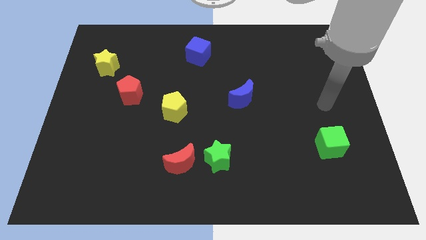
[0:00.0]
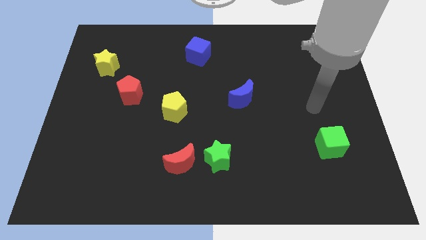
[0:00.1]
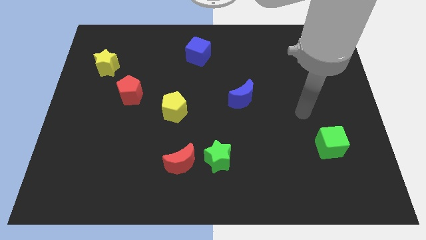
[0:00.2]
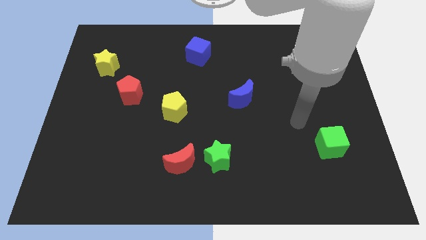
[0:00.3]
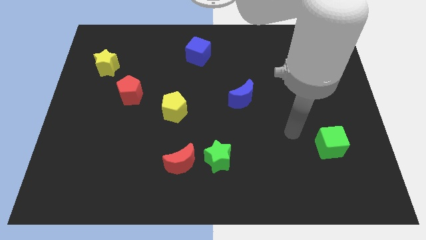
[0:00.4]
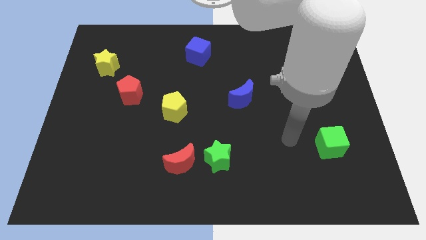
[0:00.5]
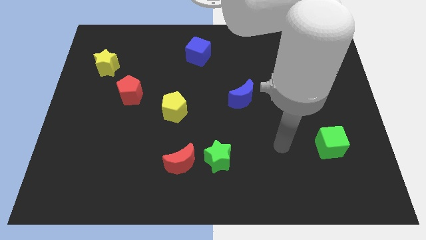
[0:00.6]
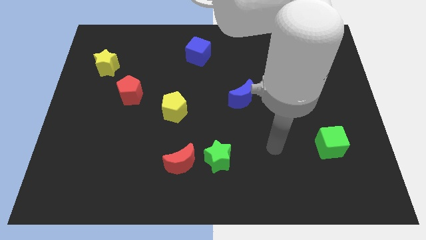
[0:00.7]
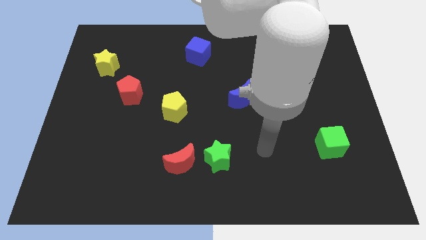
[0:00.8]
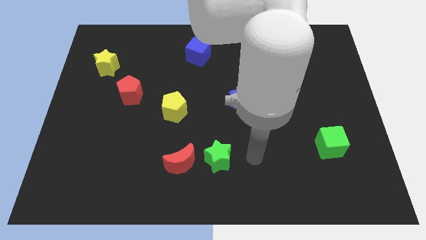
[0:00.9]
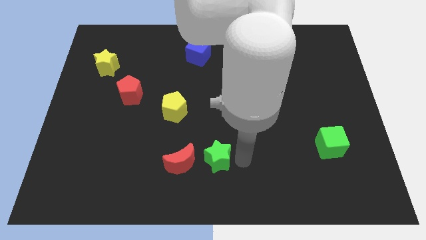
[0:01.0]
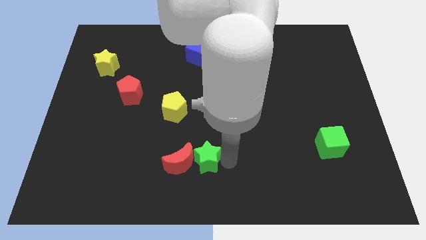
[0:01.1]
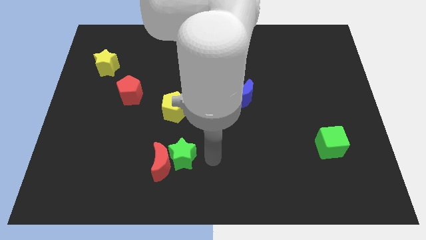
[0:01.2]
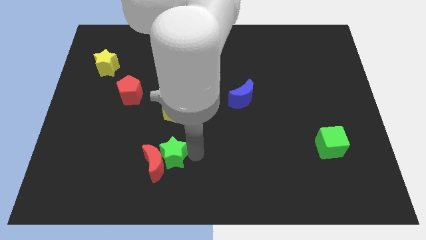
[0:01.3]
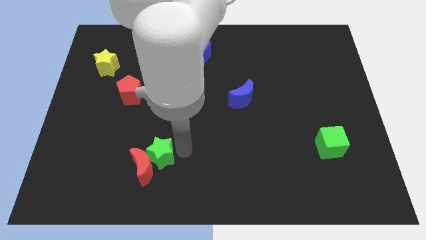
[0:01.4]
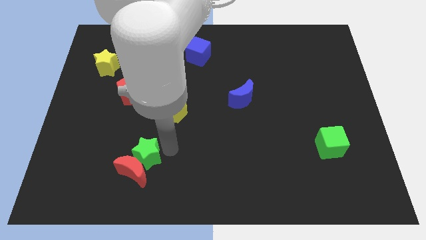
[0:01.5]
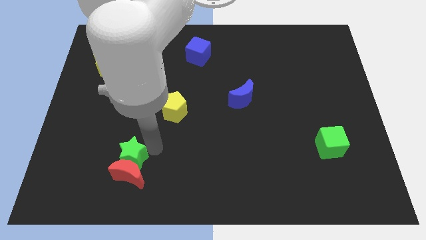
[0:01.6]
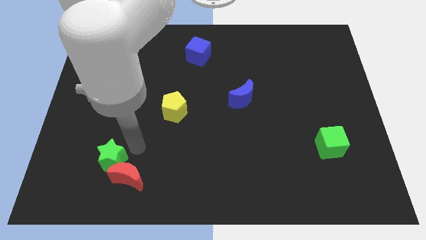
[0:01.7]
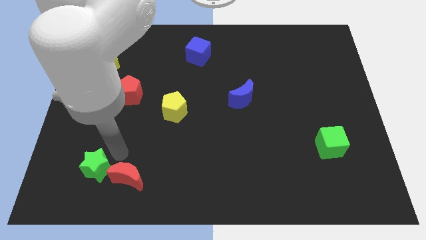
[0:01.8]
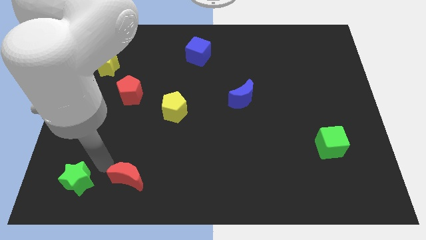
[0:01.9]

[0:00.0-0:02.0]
move the red moon away from the green star

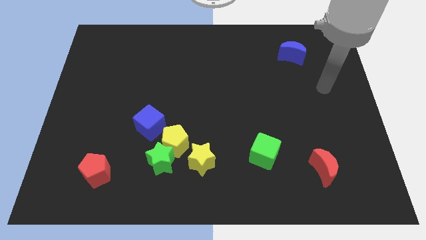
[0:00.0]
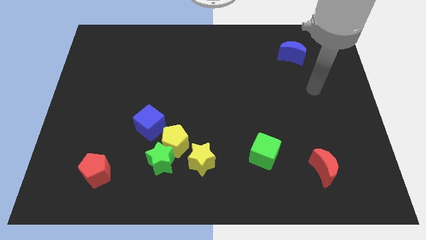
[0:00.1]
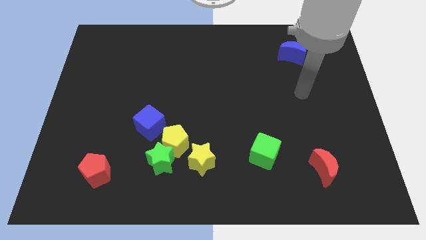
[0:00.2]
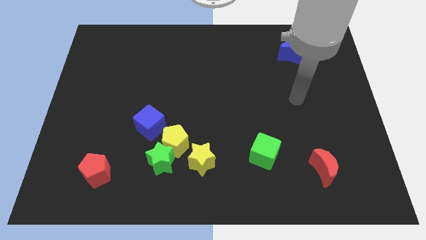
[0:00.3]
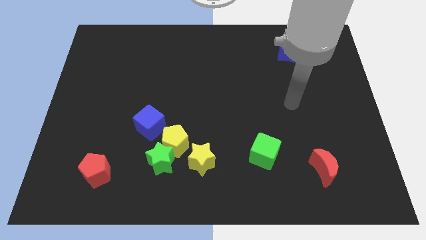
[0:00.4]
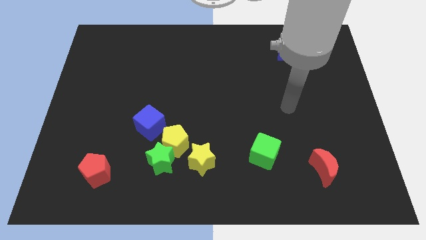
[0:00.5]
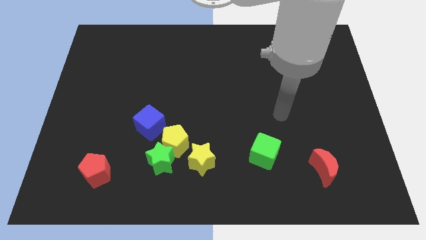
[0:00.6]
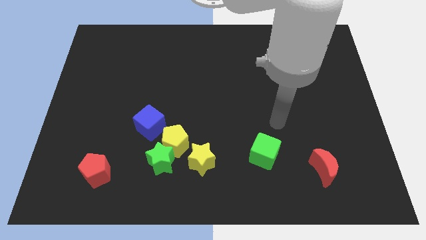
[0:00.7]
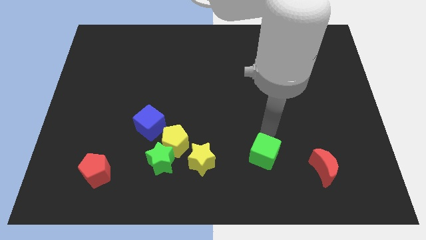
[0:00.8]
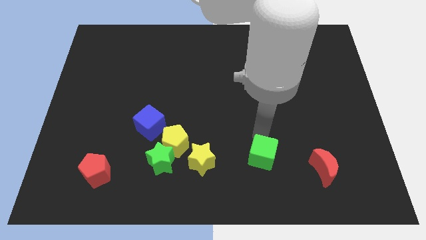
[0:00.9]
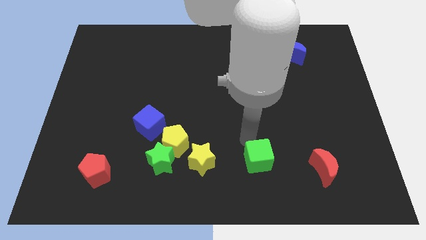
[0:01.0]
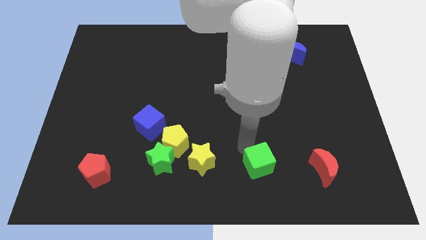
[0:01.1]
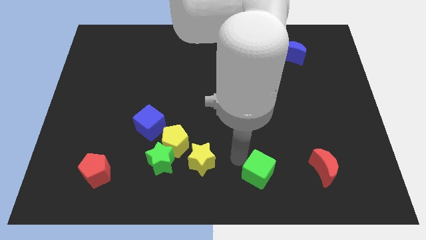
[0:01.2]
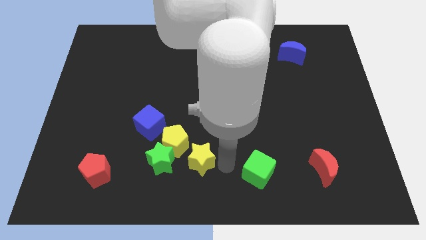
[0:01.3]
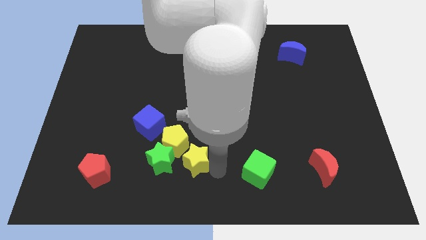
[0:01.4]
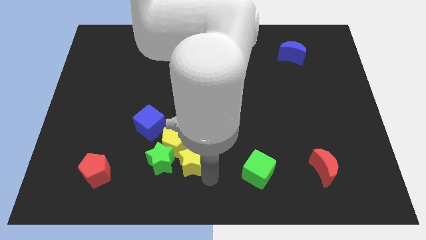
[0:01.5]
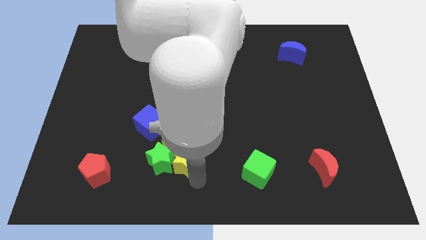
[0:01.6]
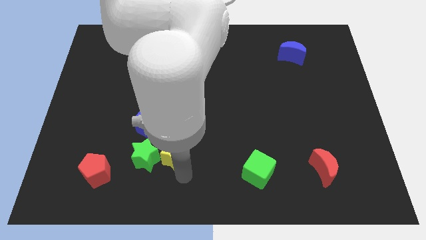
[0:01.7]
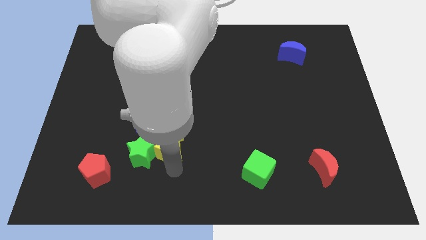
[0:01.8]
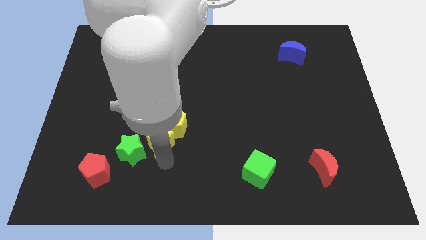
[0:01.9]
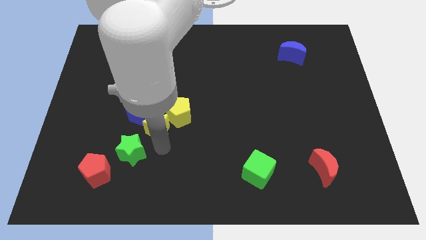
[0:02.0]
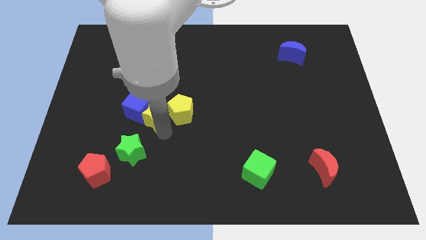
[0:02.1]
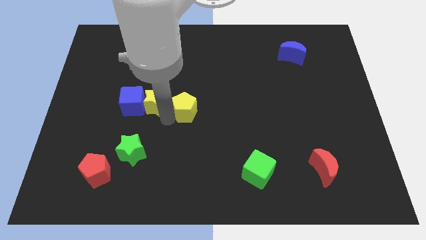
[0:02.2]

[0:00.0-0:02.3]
separate the yellow pentagon from the group of blocks

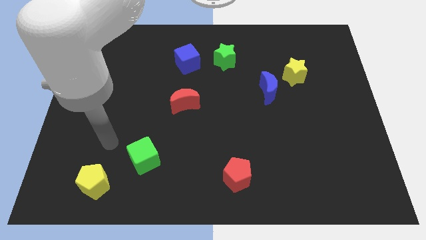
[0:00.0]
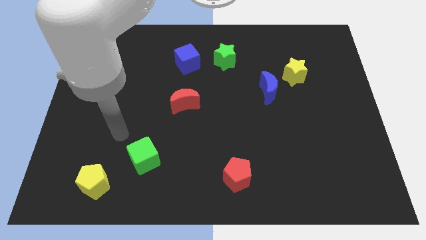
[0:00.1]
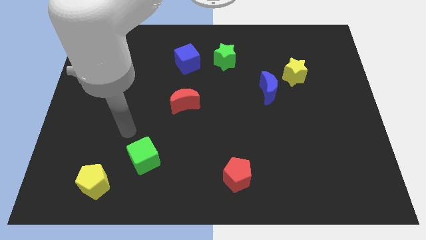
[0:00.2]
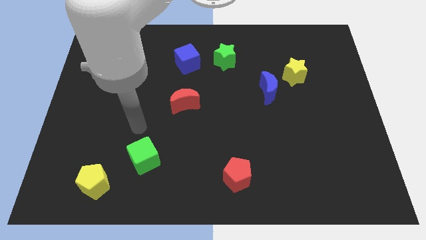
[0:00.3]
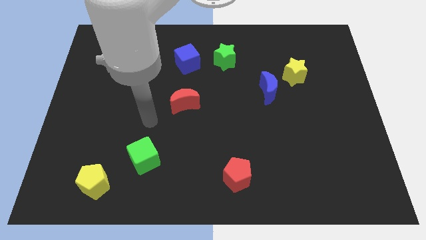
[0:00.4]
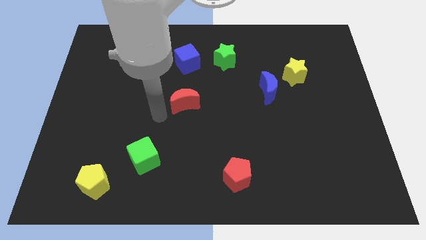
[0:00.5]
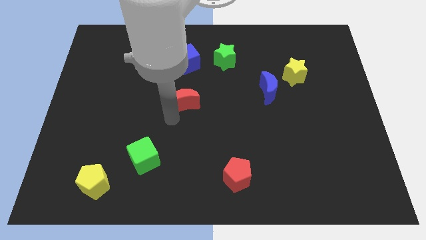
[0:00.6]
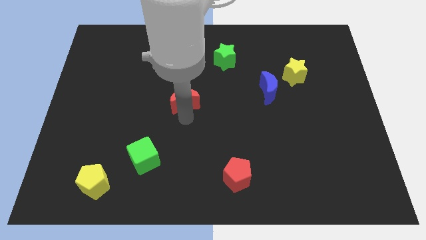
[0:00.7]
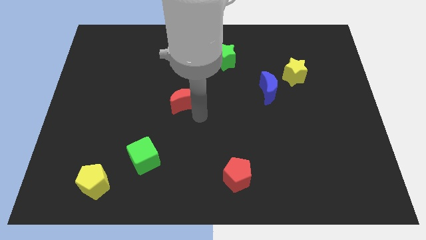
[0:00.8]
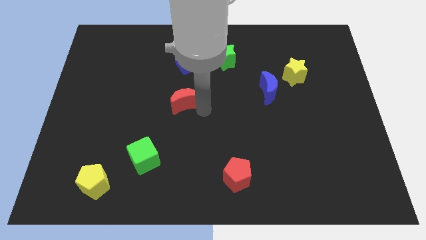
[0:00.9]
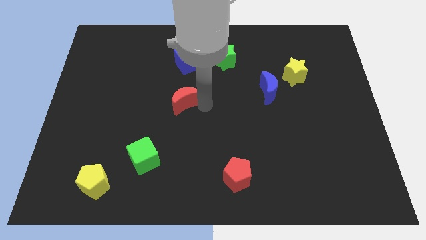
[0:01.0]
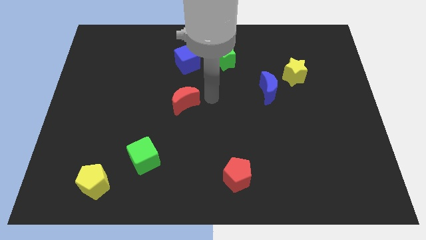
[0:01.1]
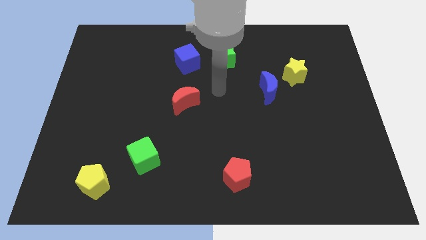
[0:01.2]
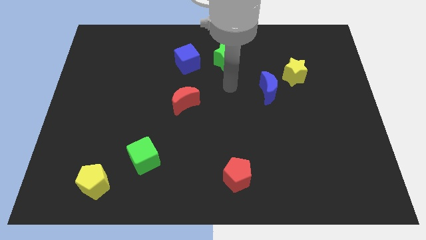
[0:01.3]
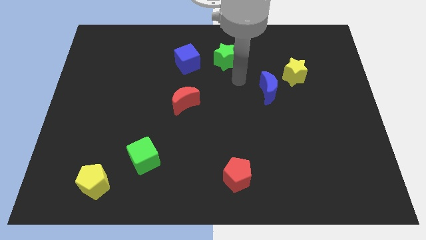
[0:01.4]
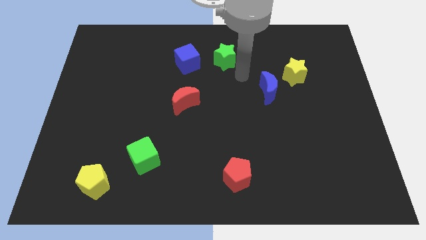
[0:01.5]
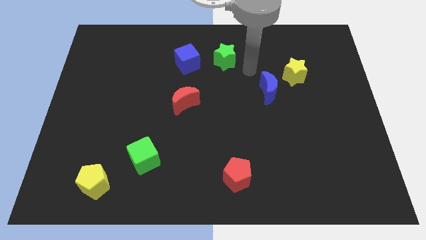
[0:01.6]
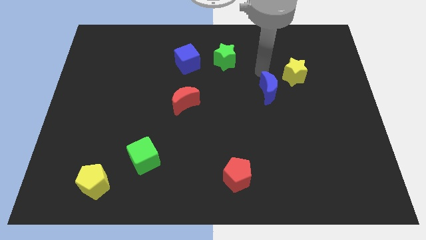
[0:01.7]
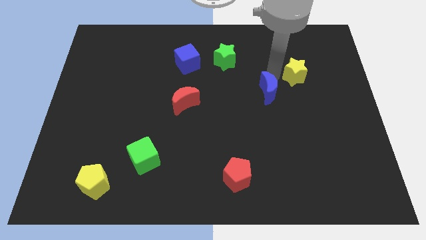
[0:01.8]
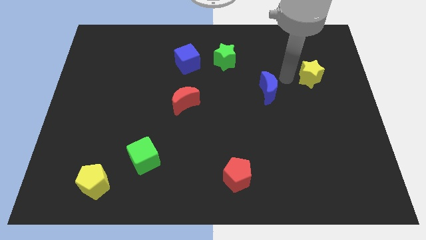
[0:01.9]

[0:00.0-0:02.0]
separate the blue moon from the yellow star

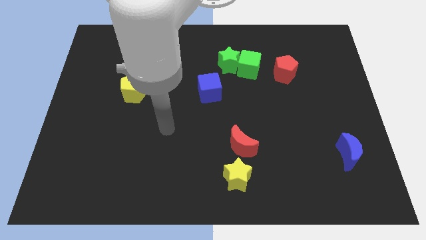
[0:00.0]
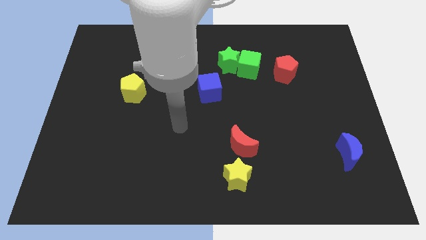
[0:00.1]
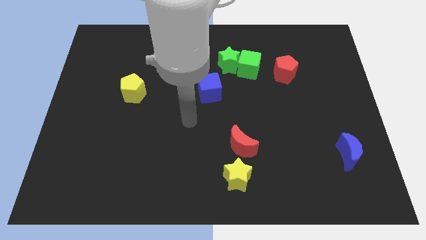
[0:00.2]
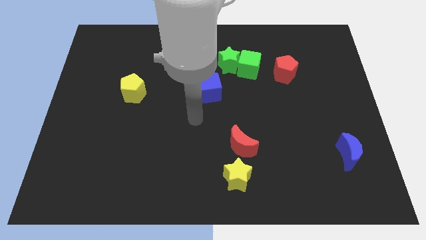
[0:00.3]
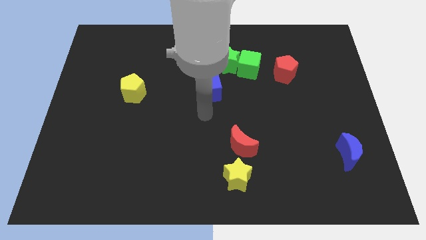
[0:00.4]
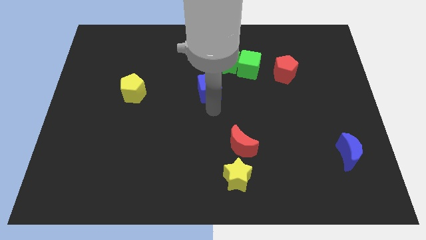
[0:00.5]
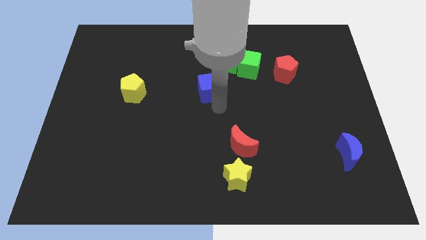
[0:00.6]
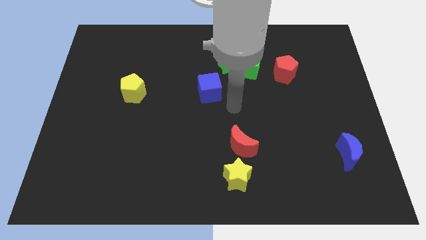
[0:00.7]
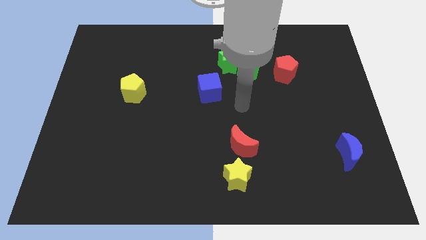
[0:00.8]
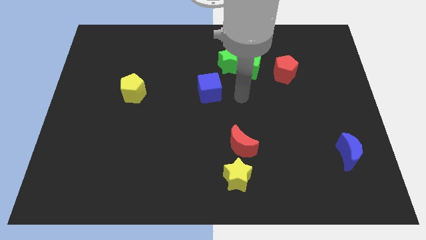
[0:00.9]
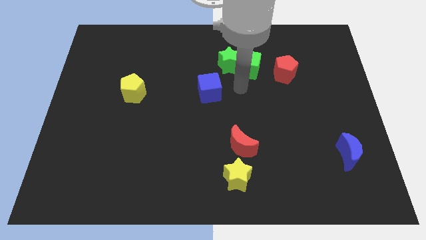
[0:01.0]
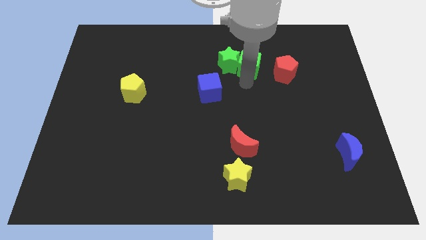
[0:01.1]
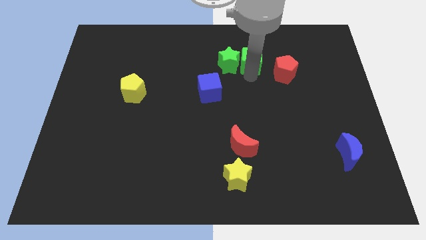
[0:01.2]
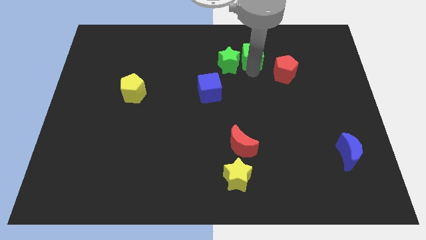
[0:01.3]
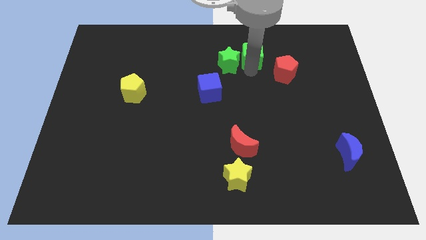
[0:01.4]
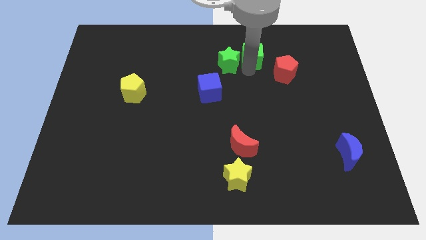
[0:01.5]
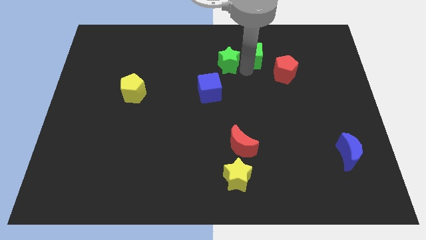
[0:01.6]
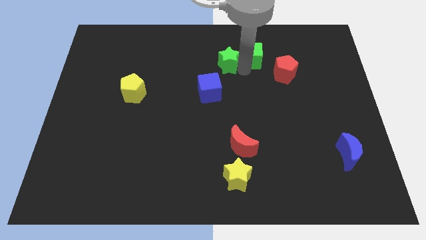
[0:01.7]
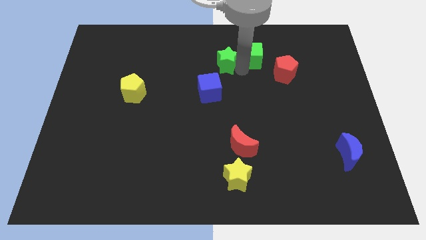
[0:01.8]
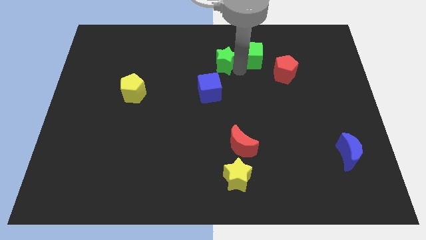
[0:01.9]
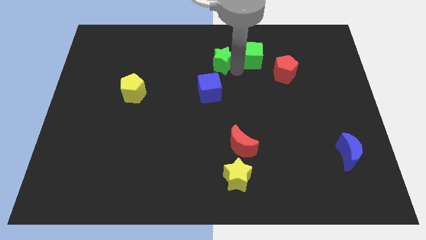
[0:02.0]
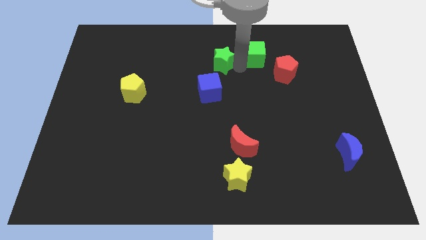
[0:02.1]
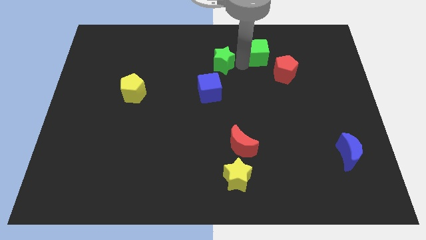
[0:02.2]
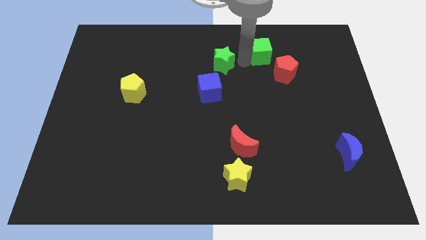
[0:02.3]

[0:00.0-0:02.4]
move the green star away from the green cube

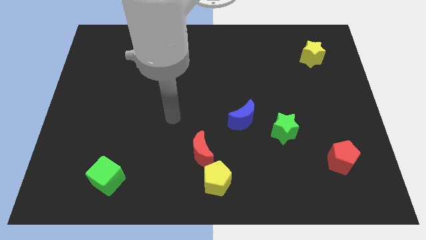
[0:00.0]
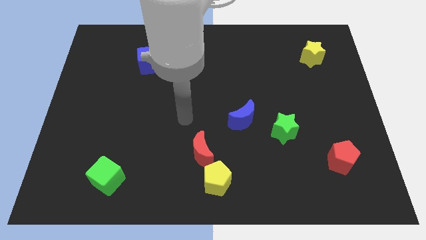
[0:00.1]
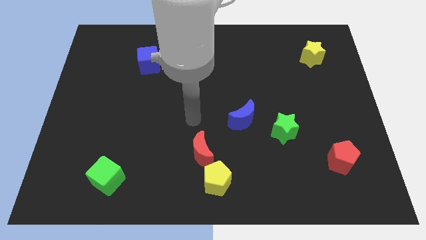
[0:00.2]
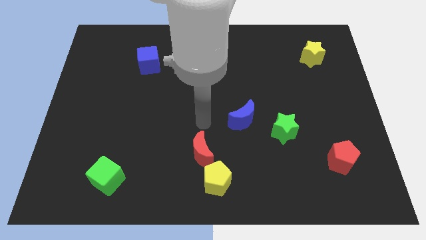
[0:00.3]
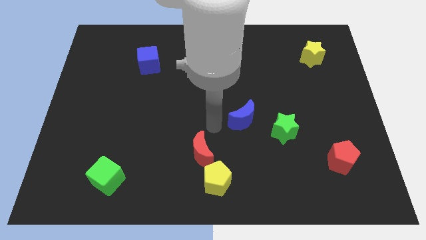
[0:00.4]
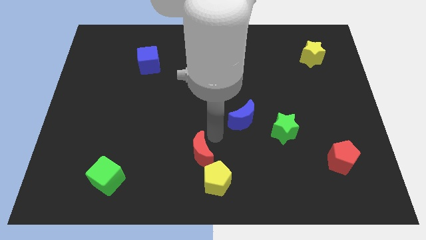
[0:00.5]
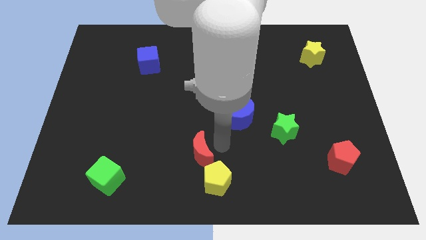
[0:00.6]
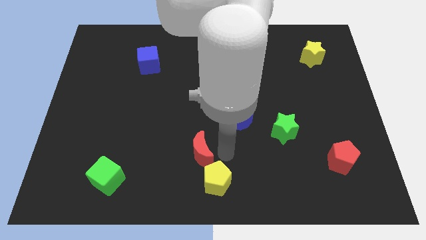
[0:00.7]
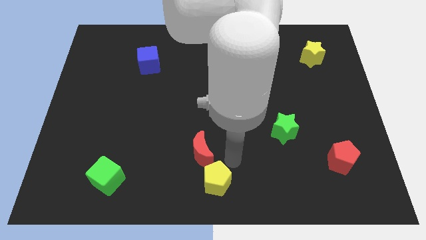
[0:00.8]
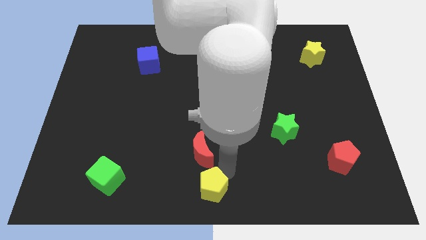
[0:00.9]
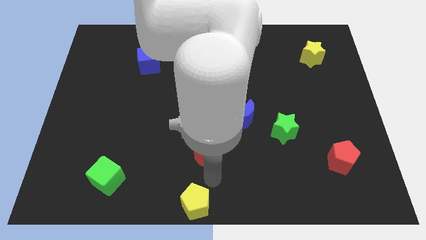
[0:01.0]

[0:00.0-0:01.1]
move the red moon away from the yellow pentagon
